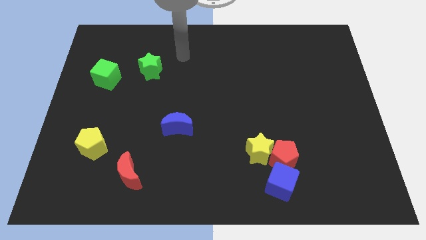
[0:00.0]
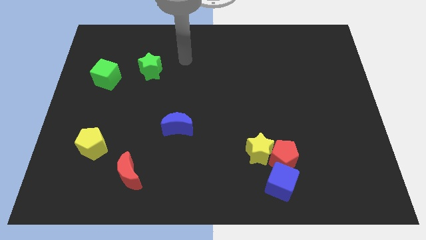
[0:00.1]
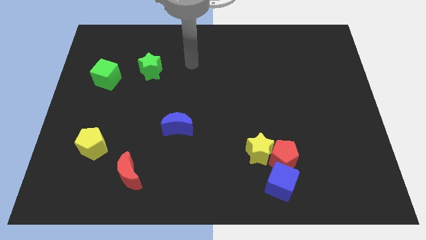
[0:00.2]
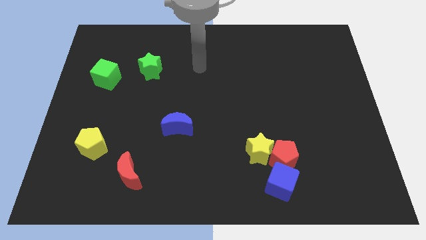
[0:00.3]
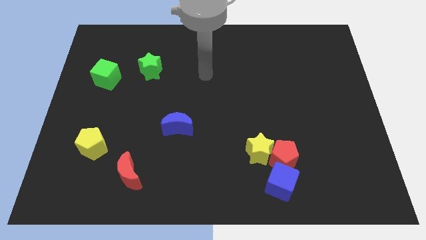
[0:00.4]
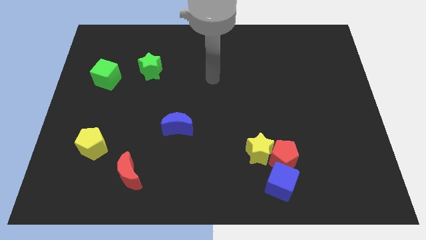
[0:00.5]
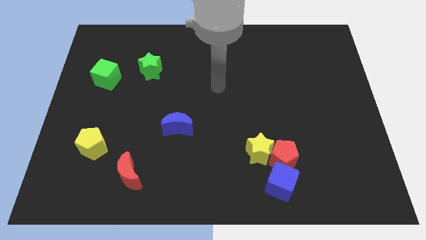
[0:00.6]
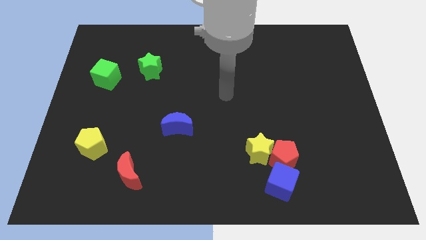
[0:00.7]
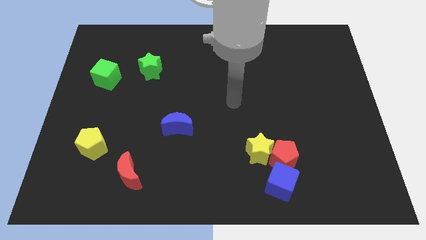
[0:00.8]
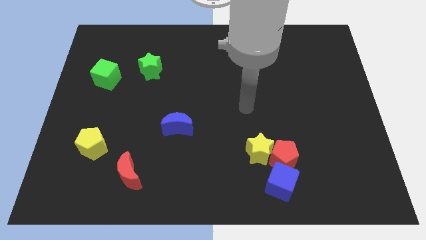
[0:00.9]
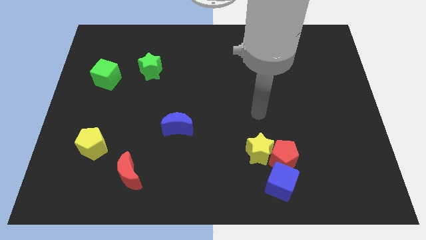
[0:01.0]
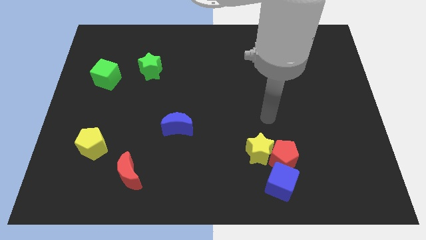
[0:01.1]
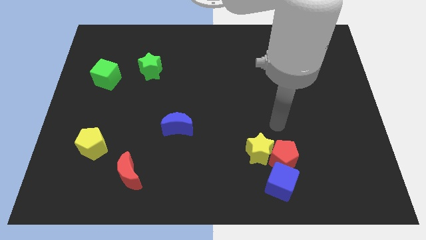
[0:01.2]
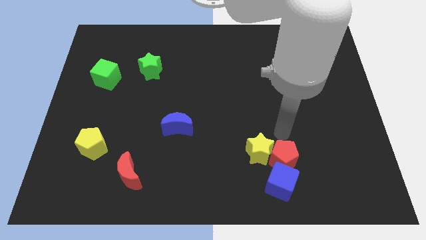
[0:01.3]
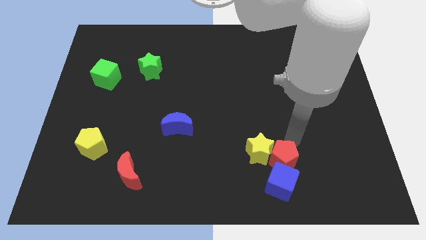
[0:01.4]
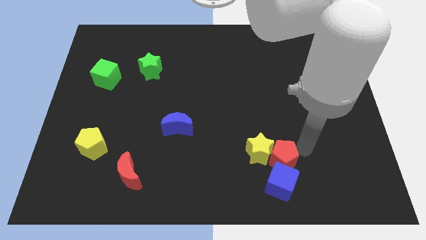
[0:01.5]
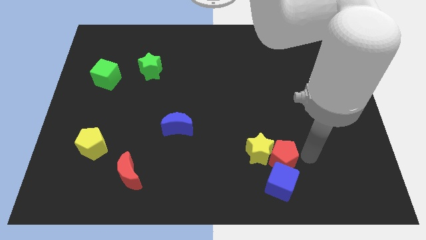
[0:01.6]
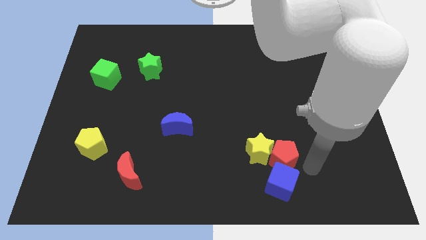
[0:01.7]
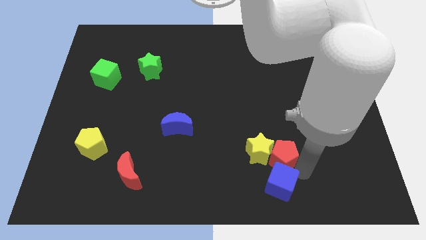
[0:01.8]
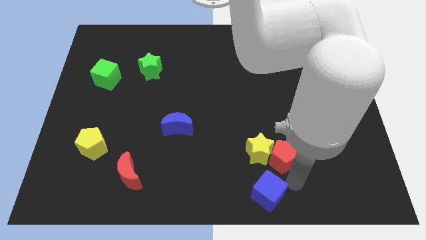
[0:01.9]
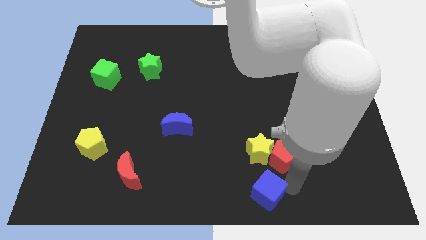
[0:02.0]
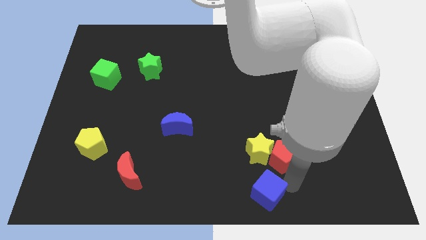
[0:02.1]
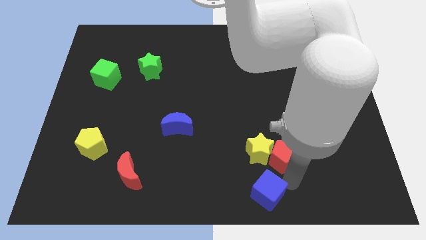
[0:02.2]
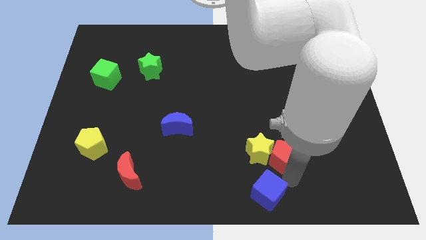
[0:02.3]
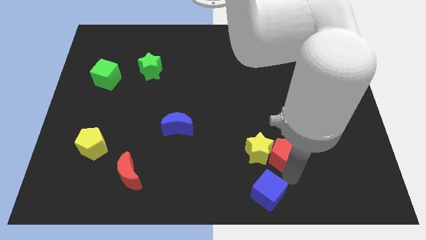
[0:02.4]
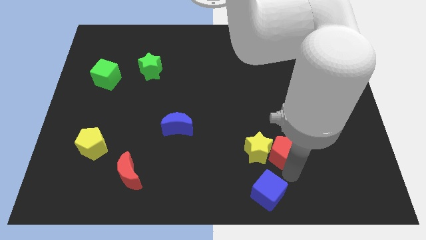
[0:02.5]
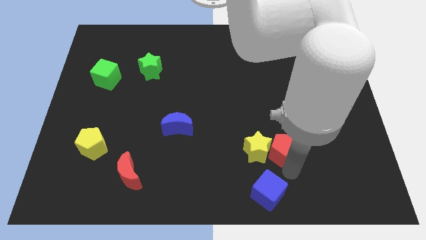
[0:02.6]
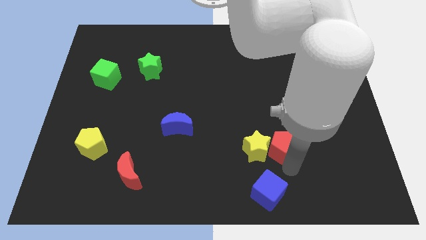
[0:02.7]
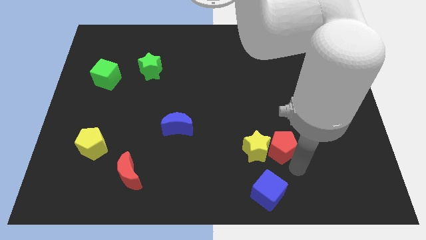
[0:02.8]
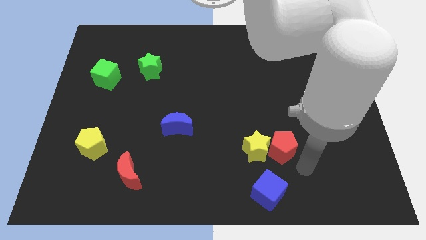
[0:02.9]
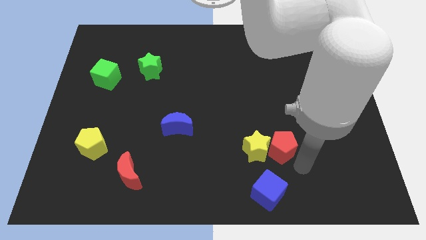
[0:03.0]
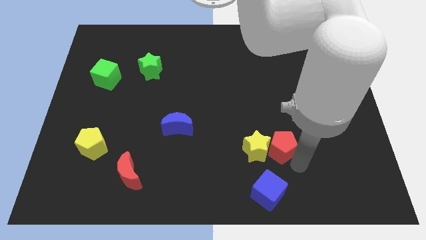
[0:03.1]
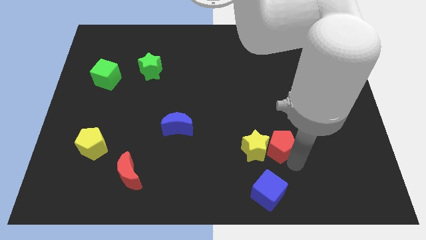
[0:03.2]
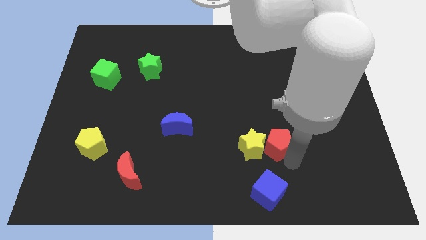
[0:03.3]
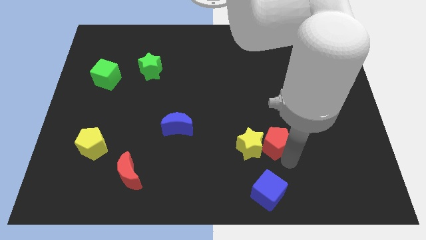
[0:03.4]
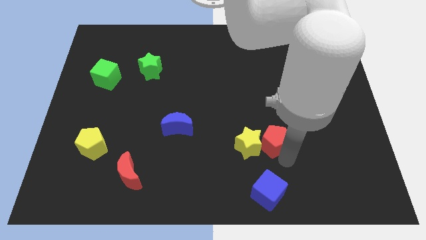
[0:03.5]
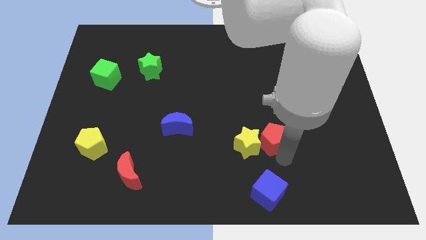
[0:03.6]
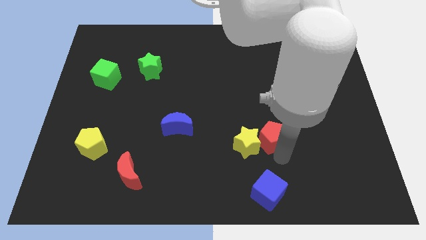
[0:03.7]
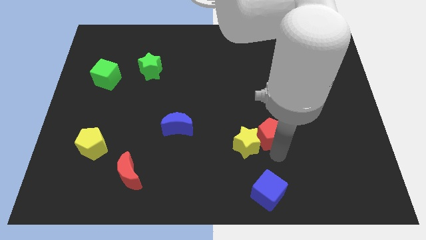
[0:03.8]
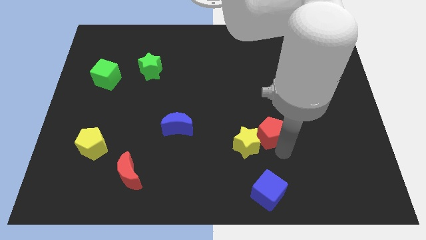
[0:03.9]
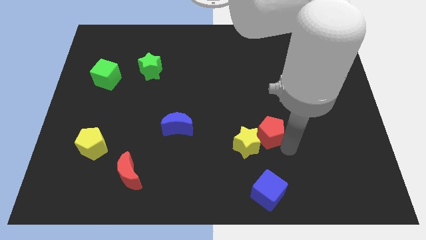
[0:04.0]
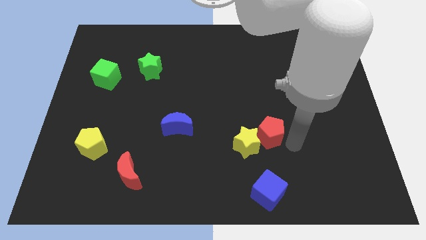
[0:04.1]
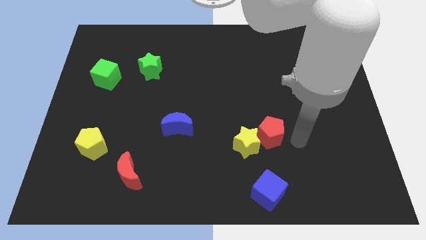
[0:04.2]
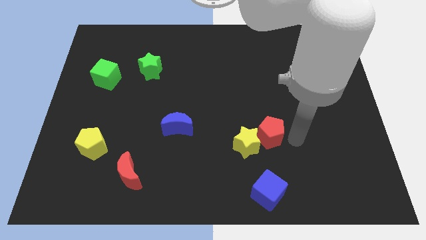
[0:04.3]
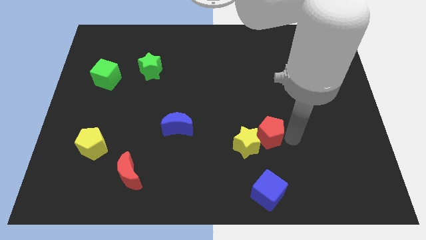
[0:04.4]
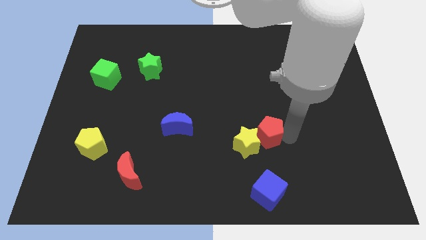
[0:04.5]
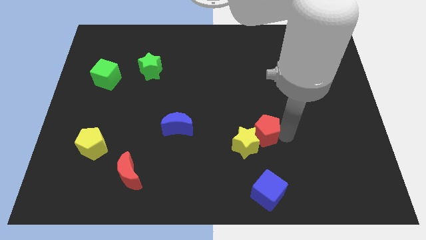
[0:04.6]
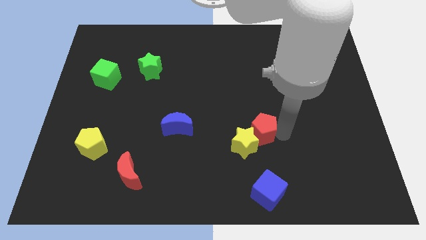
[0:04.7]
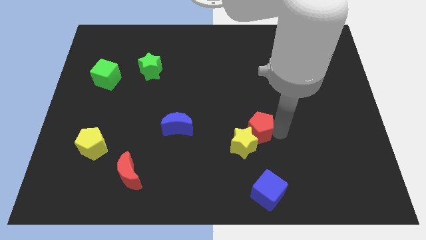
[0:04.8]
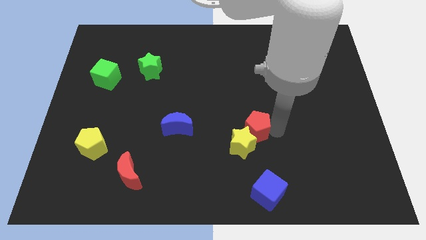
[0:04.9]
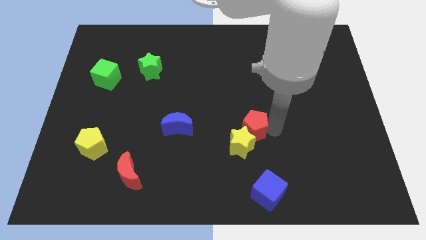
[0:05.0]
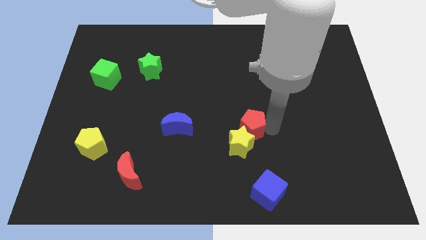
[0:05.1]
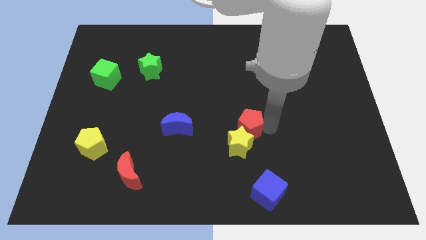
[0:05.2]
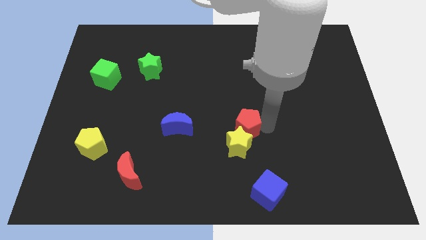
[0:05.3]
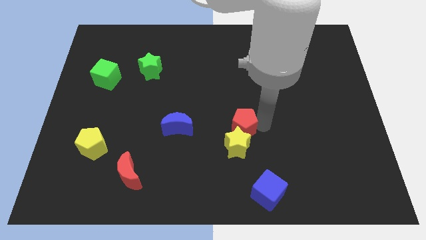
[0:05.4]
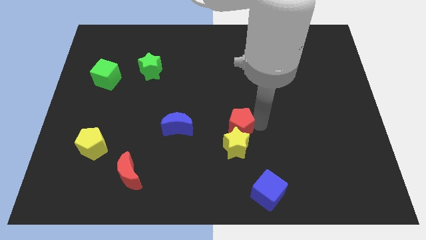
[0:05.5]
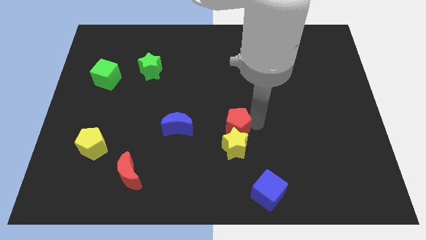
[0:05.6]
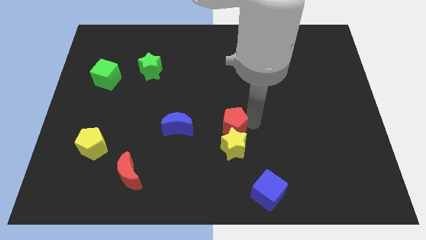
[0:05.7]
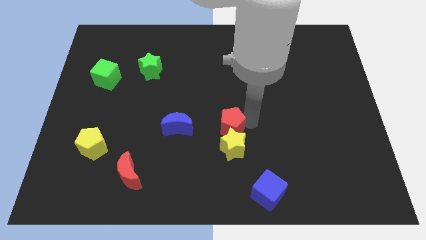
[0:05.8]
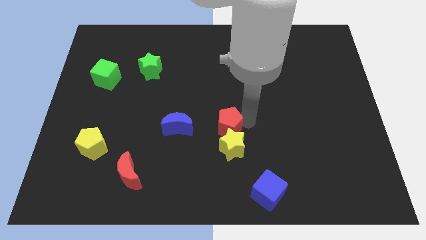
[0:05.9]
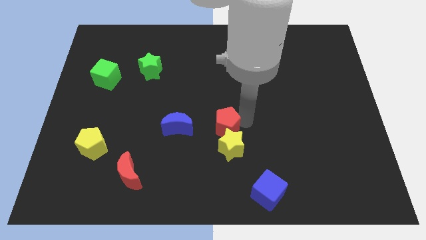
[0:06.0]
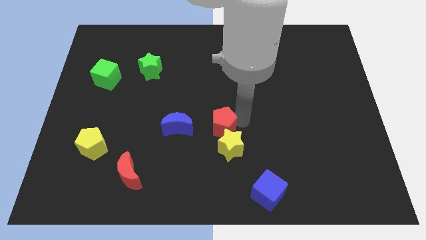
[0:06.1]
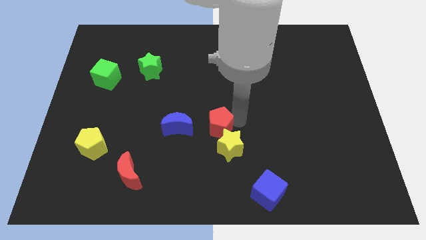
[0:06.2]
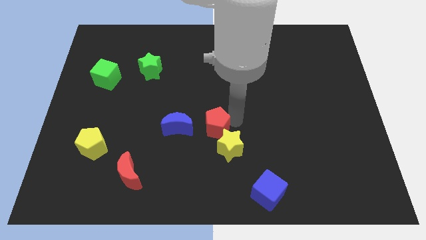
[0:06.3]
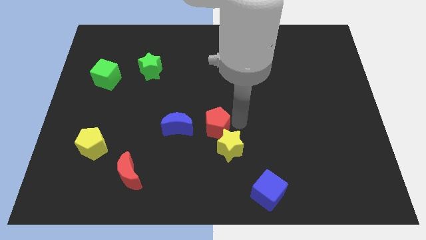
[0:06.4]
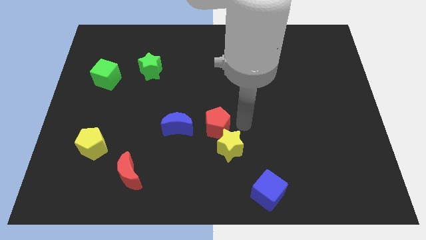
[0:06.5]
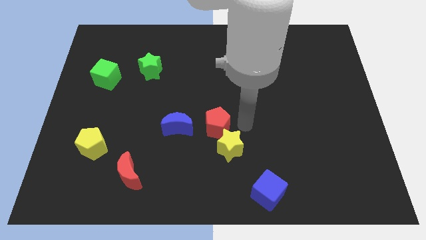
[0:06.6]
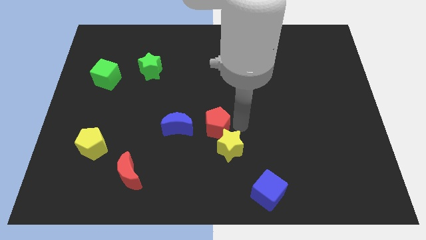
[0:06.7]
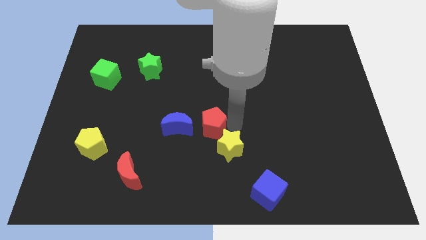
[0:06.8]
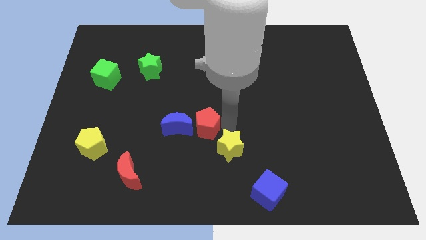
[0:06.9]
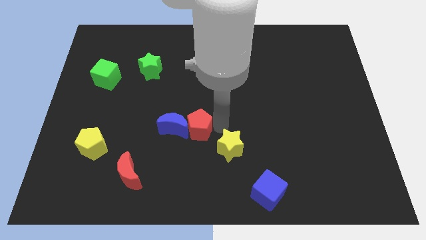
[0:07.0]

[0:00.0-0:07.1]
move the red pentagon close to the blue moon

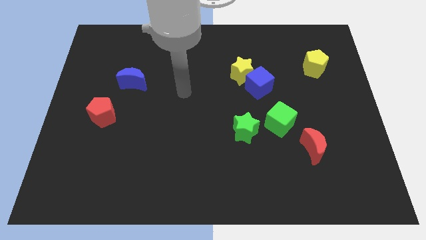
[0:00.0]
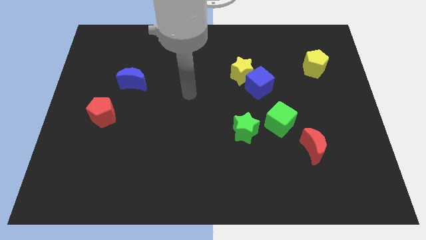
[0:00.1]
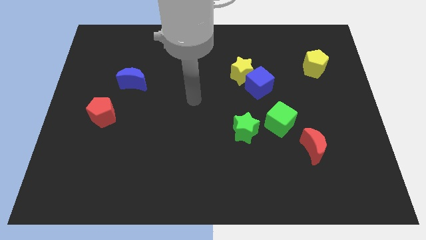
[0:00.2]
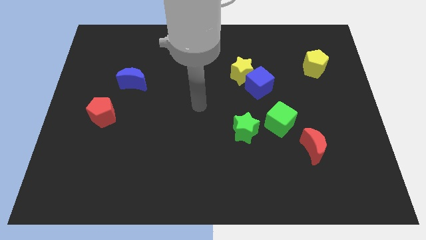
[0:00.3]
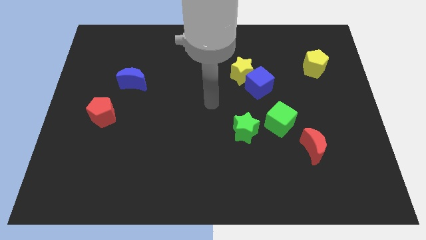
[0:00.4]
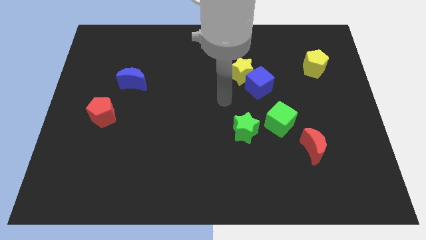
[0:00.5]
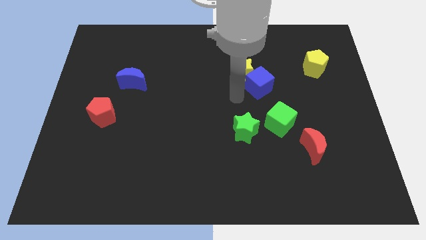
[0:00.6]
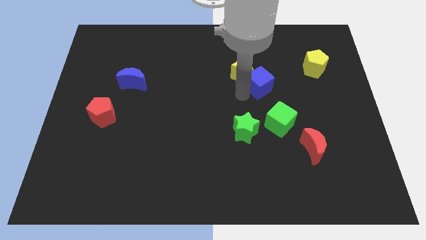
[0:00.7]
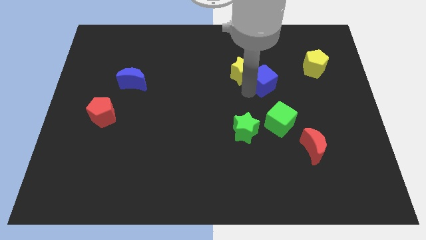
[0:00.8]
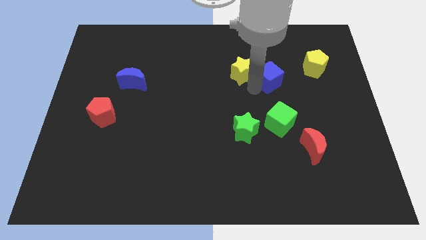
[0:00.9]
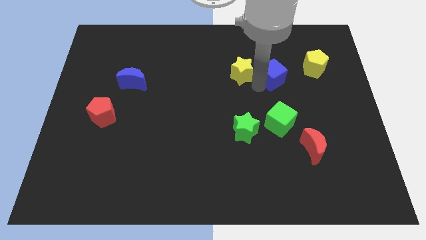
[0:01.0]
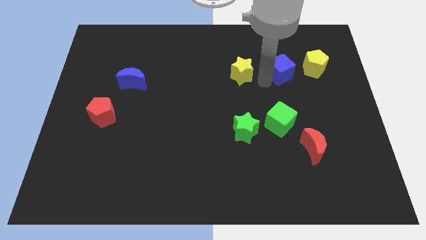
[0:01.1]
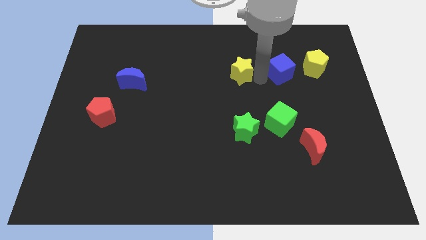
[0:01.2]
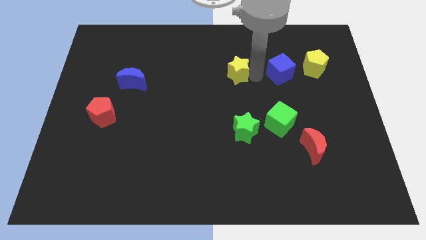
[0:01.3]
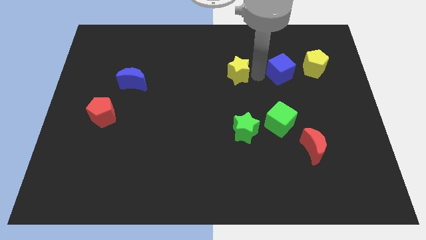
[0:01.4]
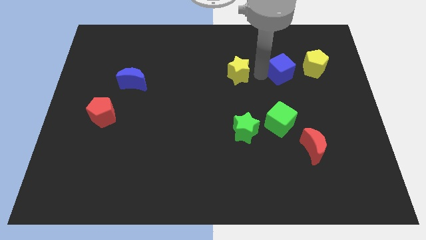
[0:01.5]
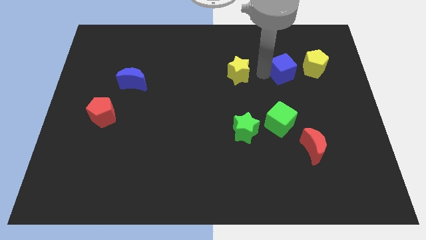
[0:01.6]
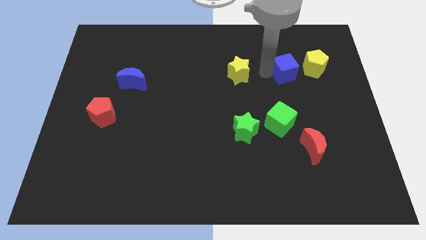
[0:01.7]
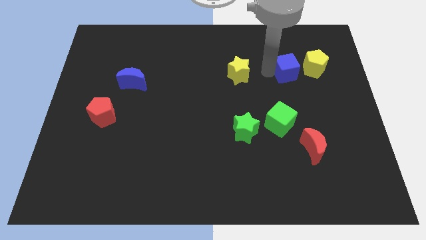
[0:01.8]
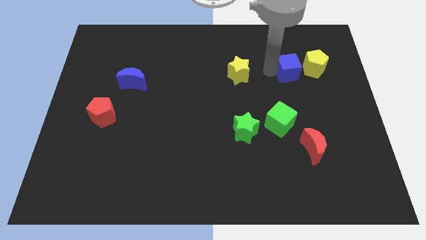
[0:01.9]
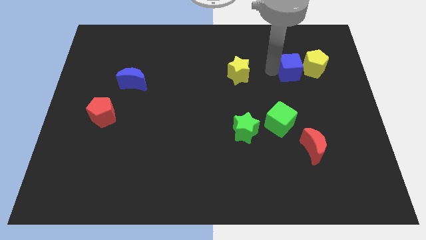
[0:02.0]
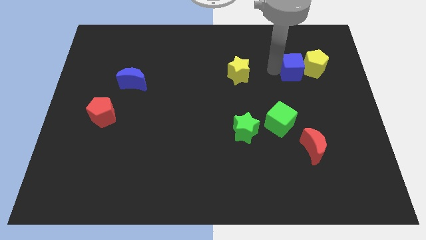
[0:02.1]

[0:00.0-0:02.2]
slide the blue cube towards the yellow pentagon
